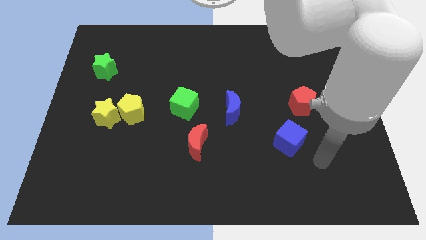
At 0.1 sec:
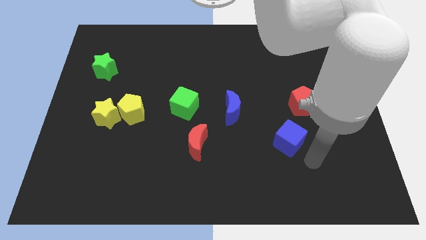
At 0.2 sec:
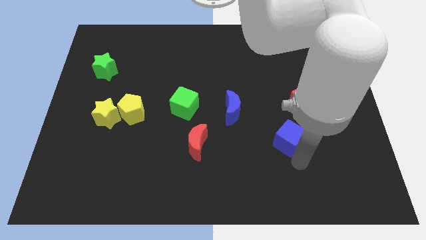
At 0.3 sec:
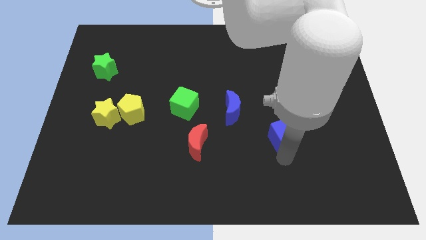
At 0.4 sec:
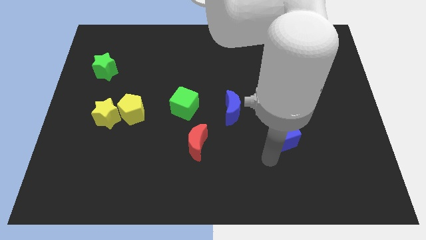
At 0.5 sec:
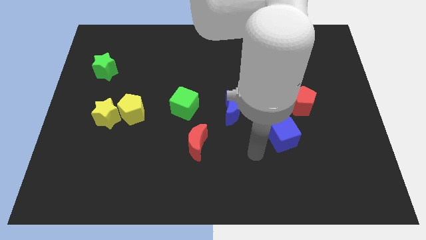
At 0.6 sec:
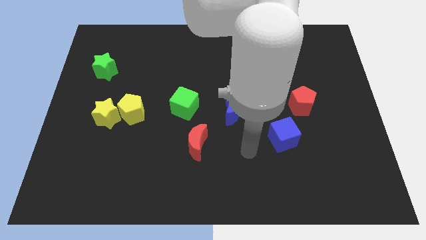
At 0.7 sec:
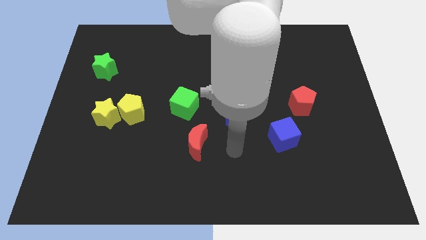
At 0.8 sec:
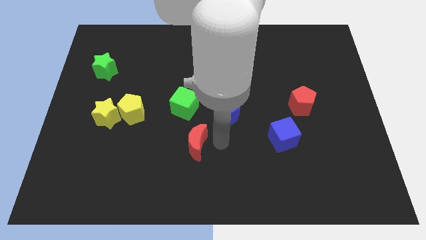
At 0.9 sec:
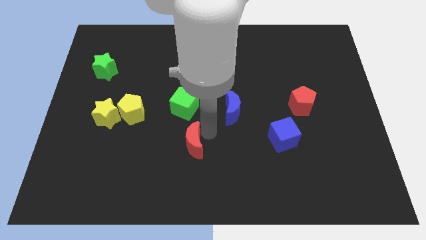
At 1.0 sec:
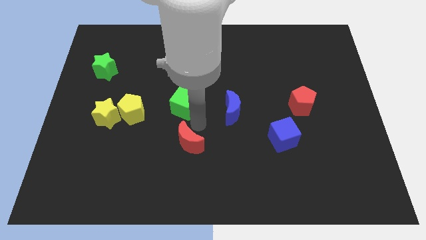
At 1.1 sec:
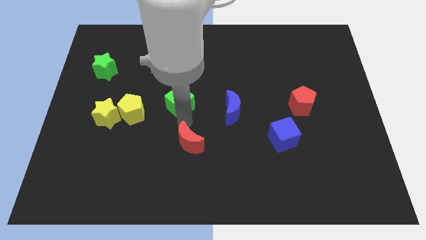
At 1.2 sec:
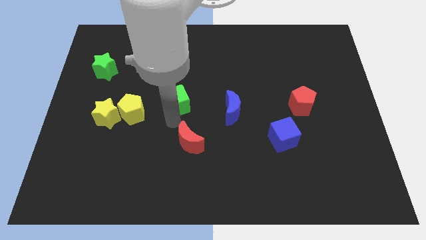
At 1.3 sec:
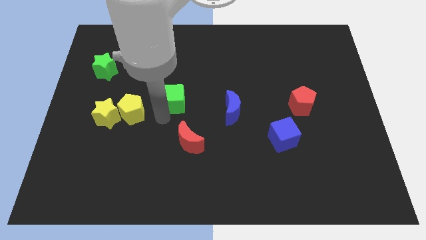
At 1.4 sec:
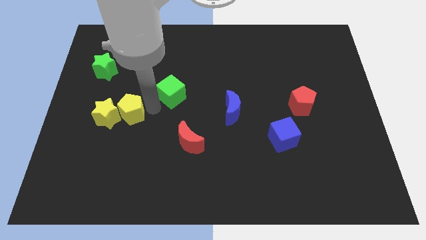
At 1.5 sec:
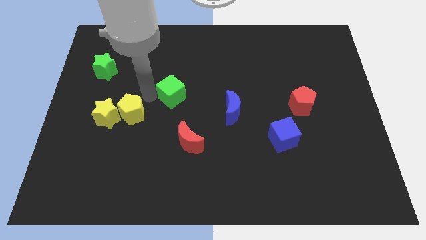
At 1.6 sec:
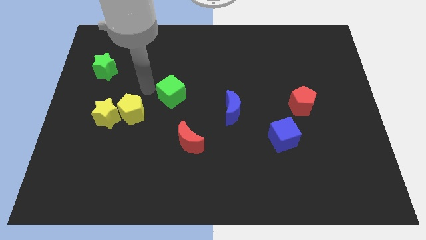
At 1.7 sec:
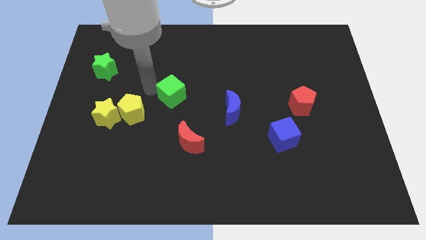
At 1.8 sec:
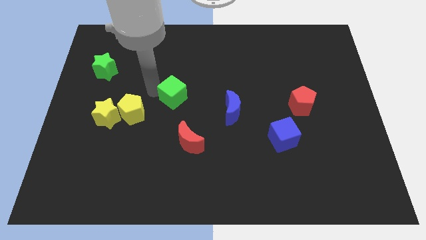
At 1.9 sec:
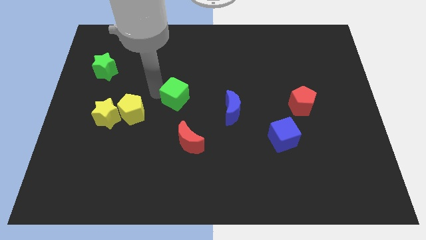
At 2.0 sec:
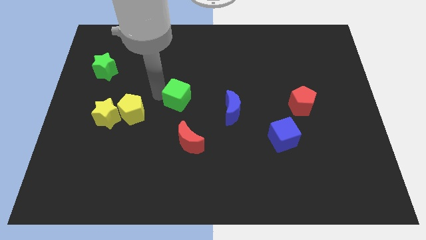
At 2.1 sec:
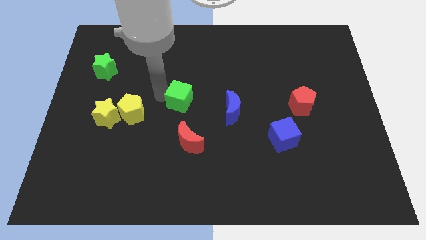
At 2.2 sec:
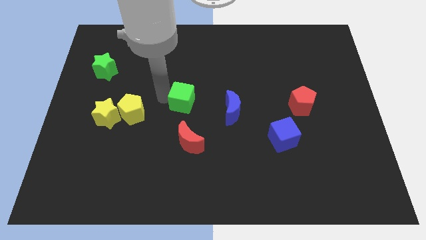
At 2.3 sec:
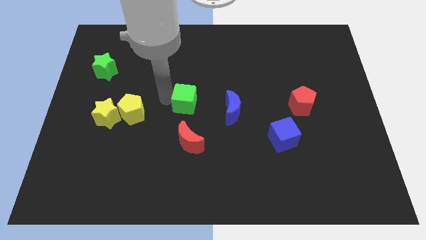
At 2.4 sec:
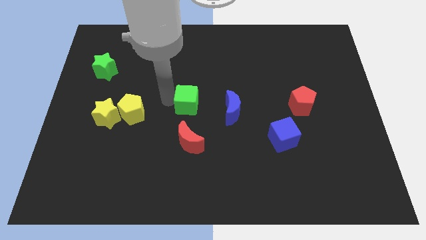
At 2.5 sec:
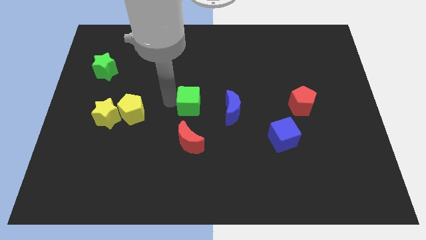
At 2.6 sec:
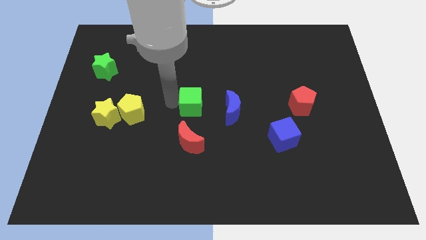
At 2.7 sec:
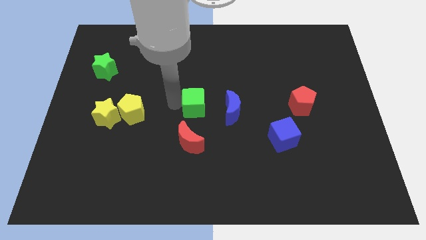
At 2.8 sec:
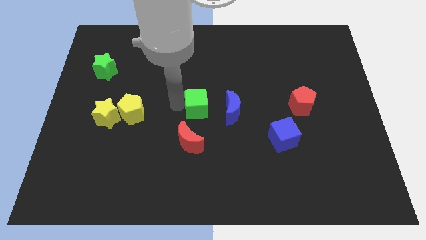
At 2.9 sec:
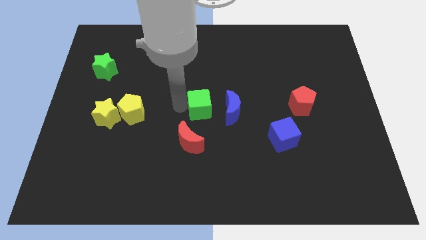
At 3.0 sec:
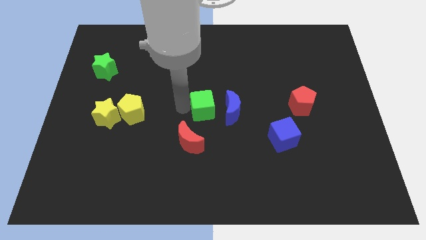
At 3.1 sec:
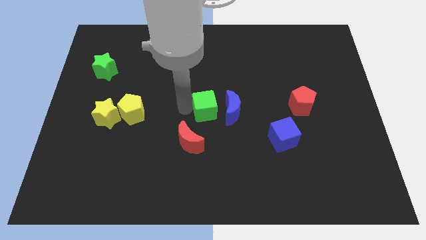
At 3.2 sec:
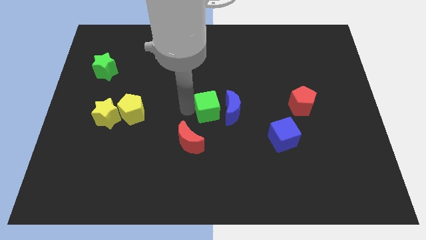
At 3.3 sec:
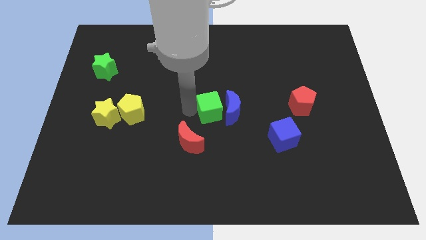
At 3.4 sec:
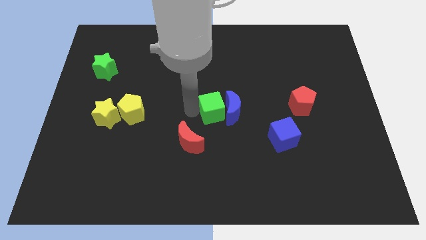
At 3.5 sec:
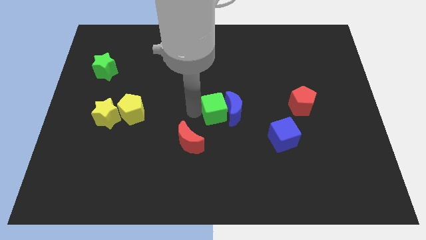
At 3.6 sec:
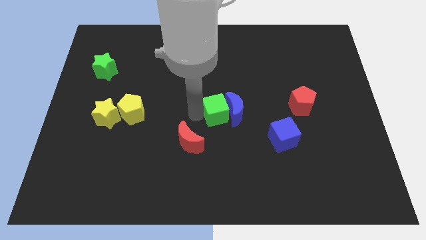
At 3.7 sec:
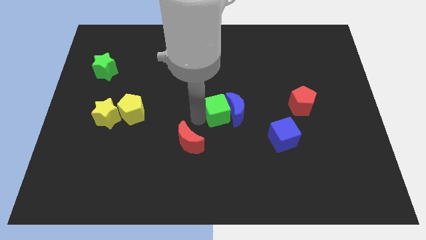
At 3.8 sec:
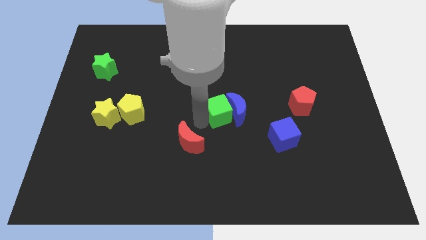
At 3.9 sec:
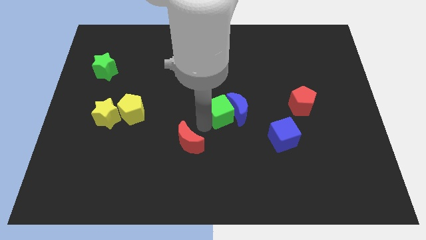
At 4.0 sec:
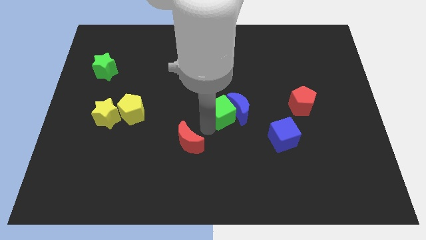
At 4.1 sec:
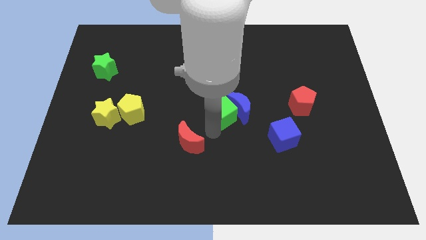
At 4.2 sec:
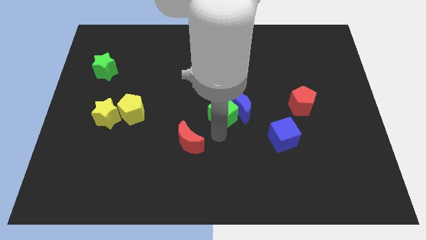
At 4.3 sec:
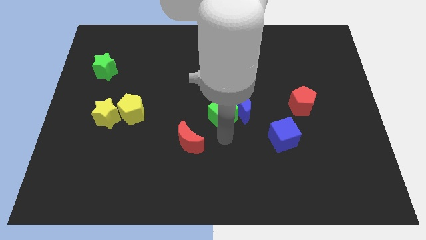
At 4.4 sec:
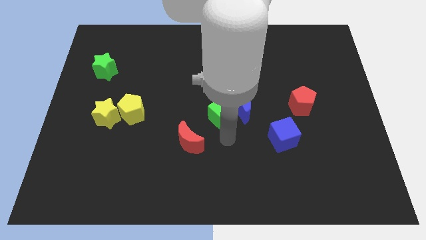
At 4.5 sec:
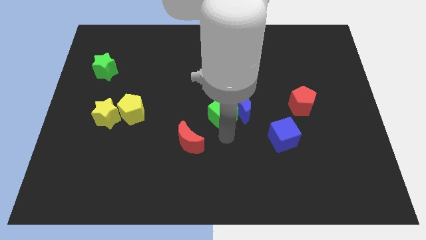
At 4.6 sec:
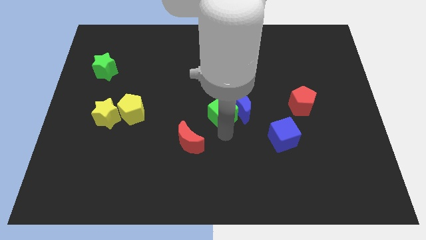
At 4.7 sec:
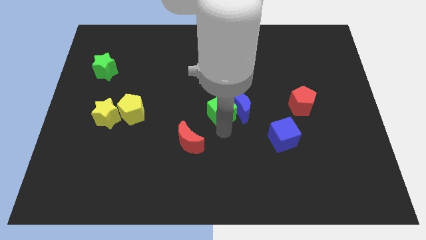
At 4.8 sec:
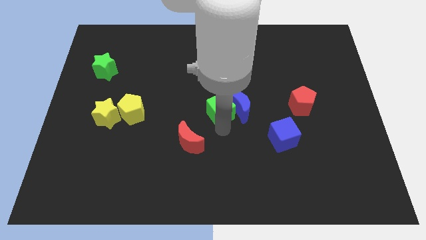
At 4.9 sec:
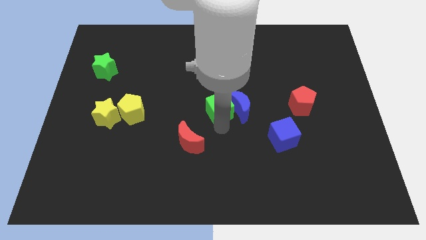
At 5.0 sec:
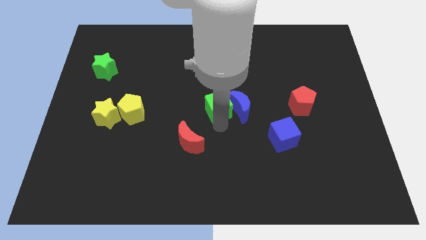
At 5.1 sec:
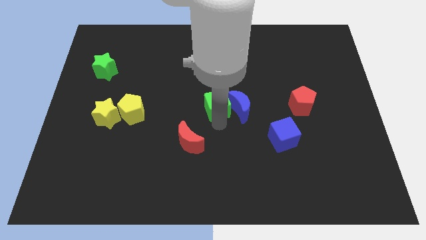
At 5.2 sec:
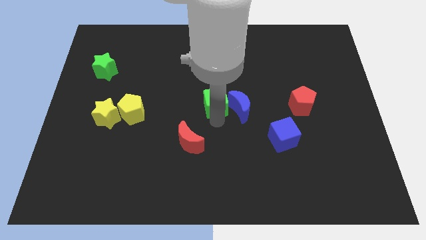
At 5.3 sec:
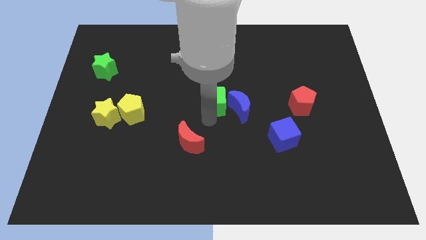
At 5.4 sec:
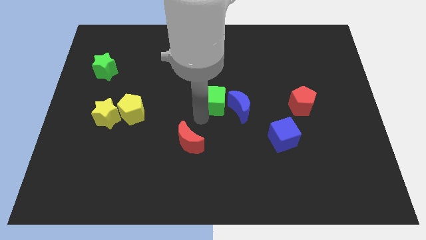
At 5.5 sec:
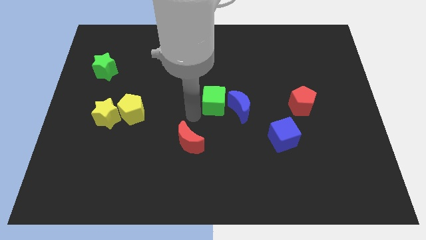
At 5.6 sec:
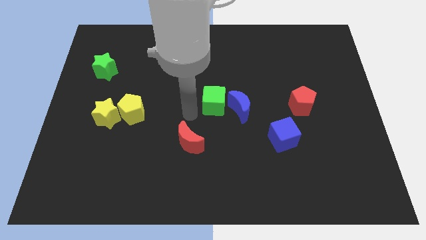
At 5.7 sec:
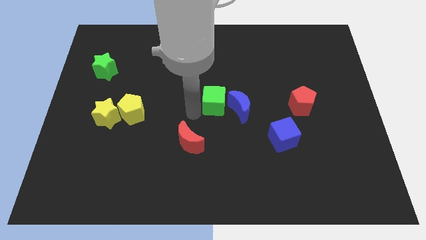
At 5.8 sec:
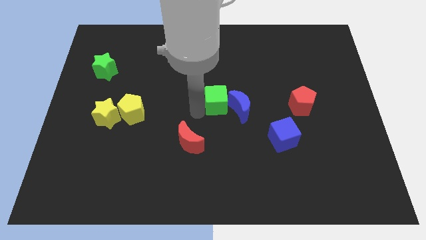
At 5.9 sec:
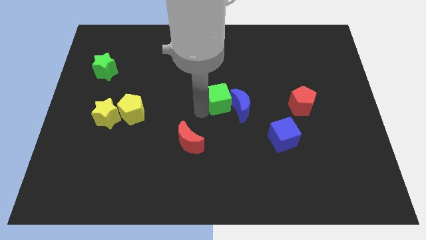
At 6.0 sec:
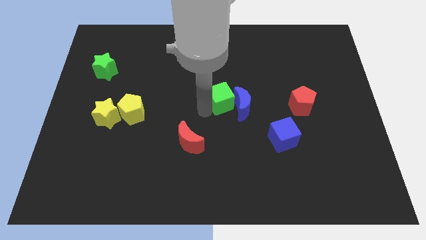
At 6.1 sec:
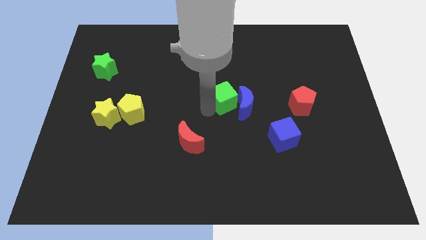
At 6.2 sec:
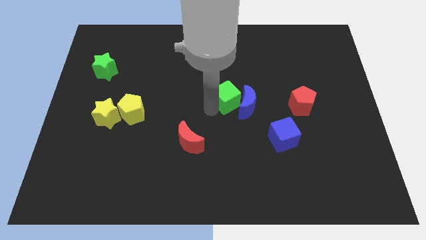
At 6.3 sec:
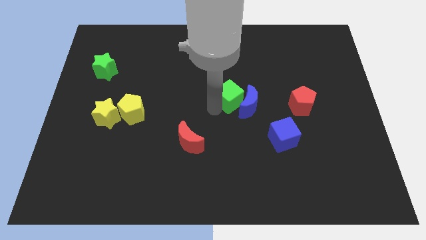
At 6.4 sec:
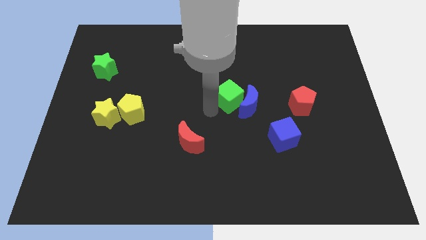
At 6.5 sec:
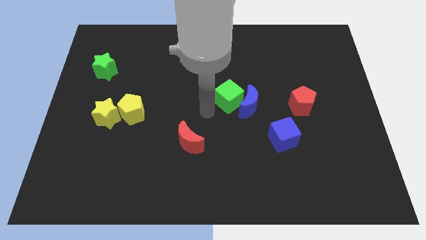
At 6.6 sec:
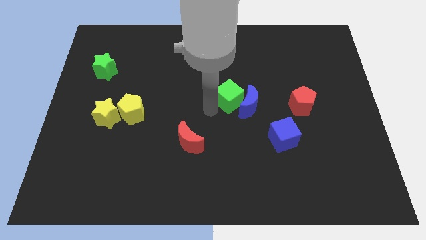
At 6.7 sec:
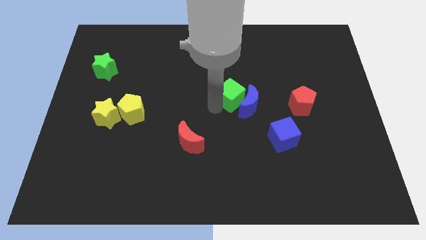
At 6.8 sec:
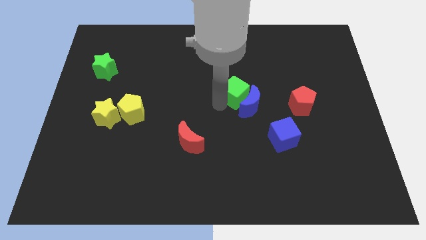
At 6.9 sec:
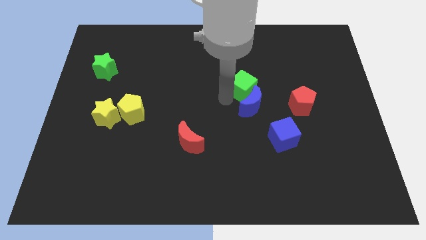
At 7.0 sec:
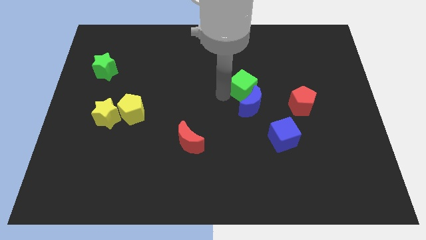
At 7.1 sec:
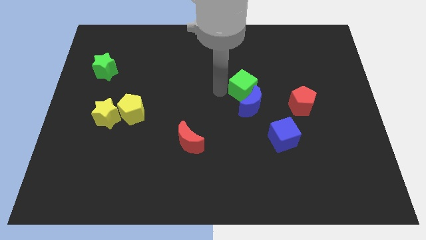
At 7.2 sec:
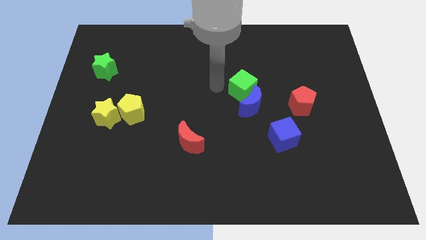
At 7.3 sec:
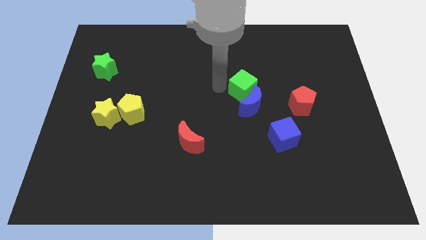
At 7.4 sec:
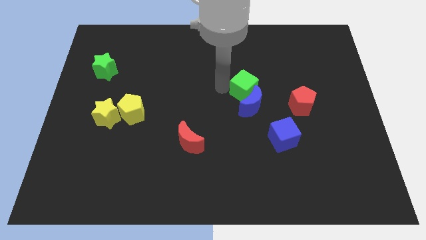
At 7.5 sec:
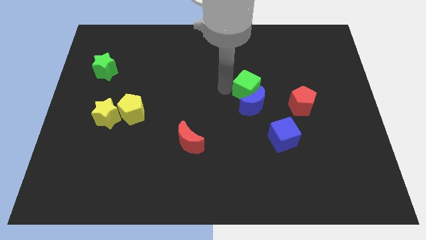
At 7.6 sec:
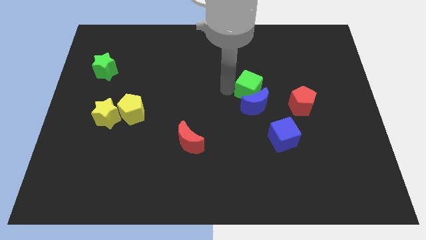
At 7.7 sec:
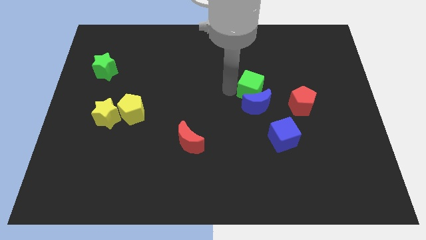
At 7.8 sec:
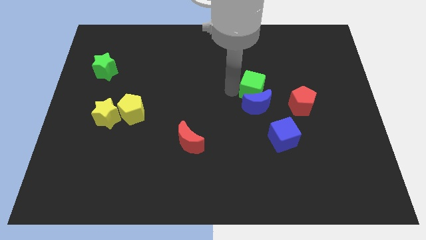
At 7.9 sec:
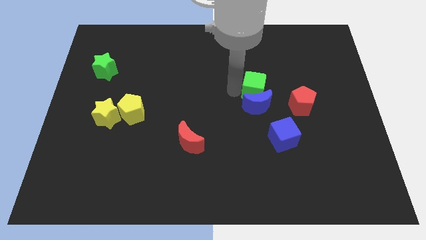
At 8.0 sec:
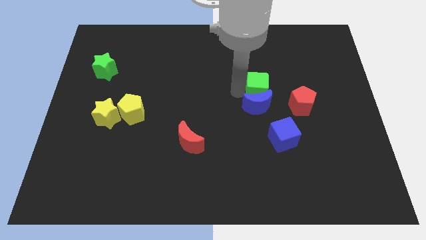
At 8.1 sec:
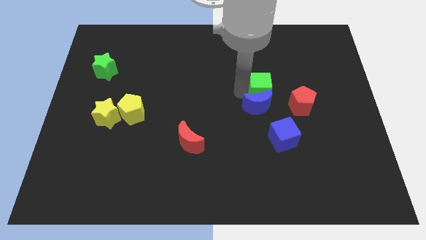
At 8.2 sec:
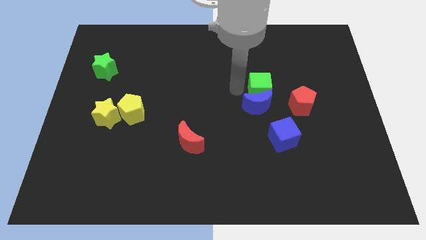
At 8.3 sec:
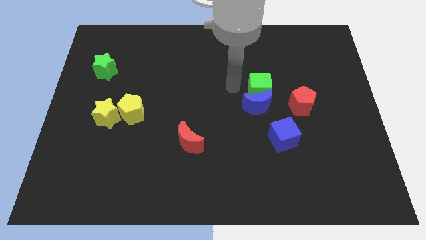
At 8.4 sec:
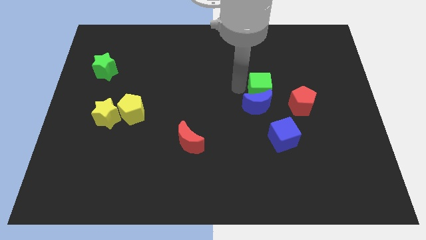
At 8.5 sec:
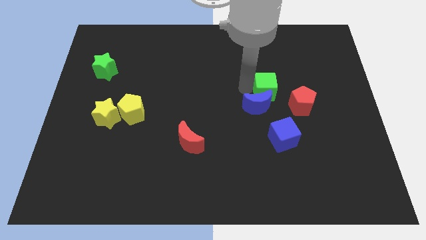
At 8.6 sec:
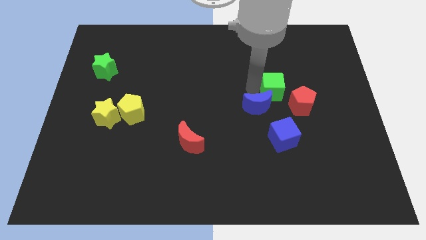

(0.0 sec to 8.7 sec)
push the green cube right
